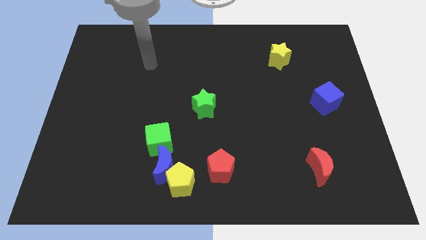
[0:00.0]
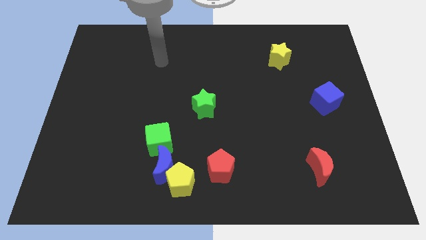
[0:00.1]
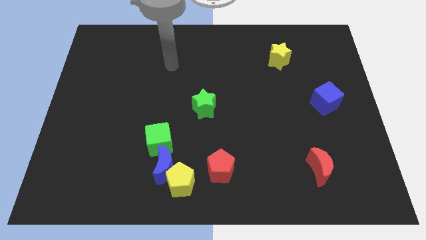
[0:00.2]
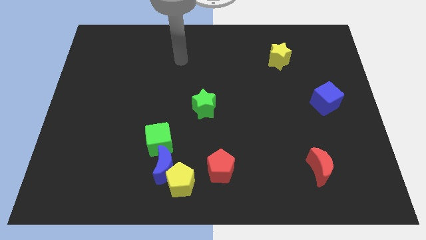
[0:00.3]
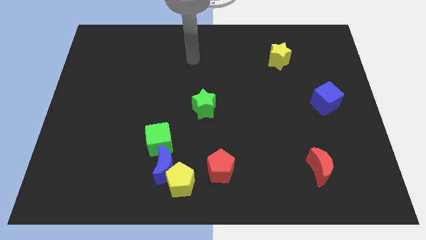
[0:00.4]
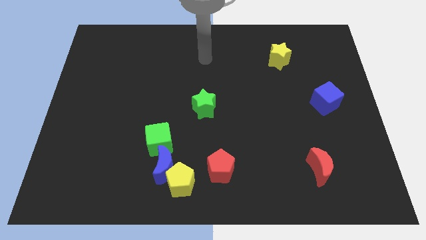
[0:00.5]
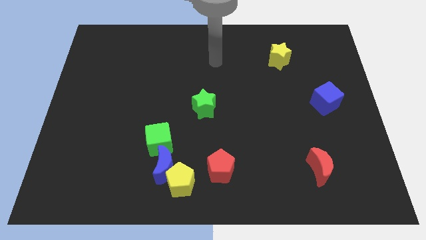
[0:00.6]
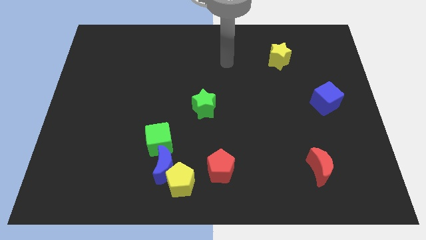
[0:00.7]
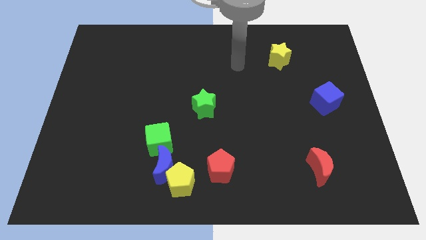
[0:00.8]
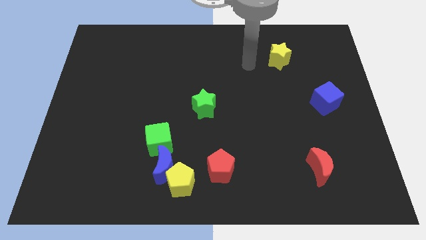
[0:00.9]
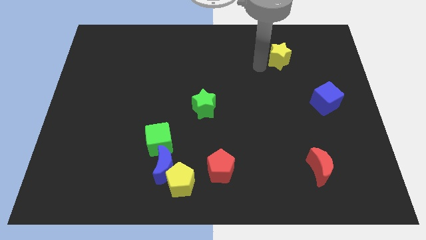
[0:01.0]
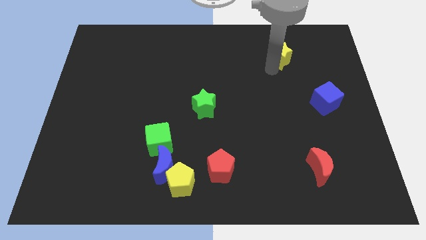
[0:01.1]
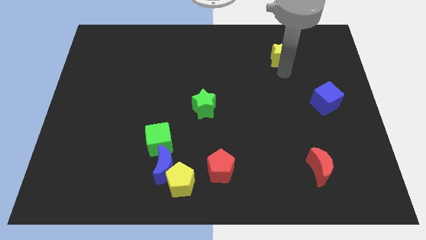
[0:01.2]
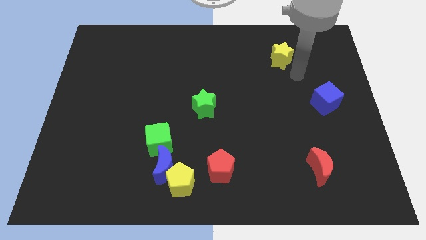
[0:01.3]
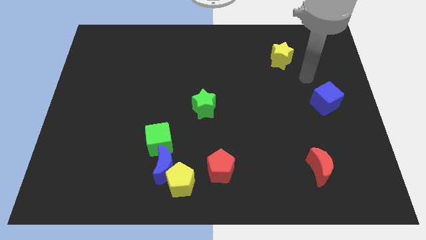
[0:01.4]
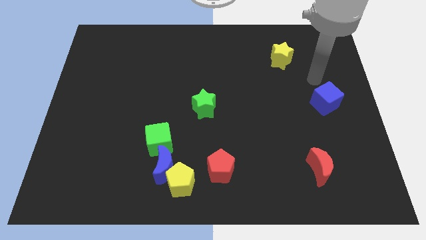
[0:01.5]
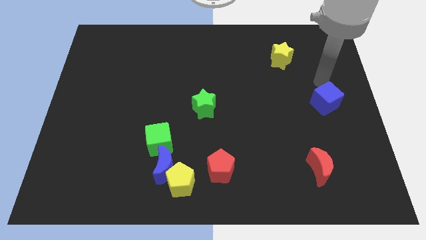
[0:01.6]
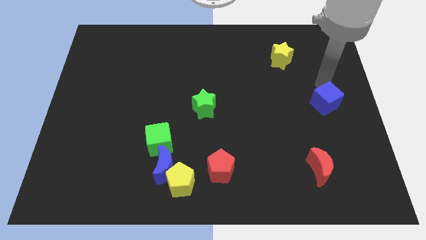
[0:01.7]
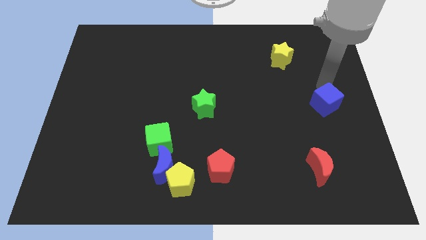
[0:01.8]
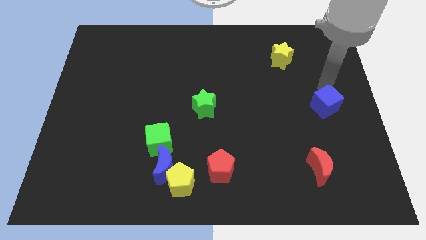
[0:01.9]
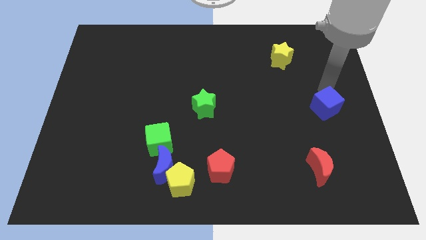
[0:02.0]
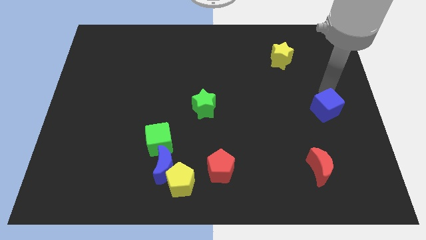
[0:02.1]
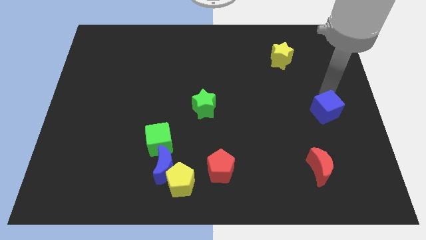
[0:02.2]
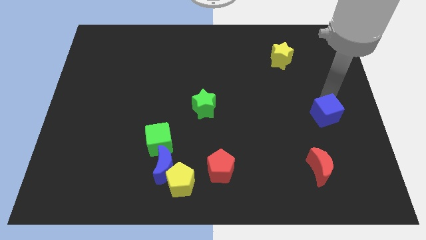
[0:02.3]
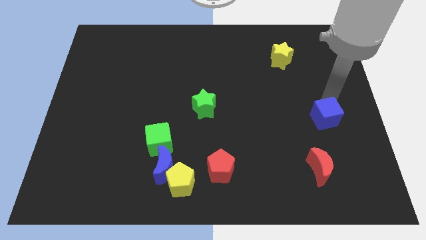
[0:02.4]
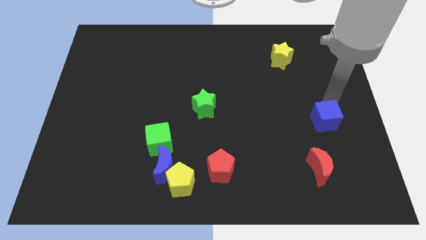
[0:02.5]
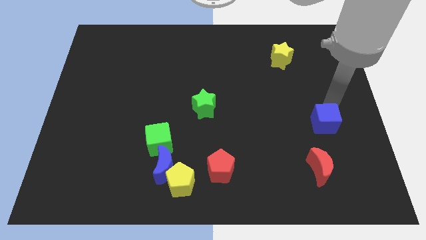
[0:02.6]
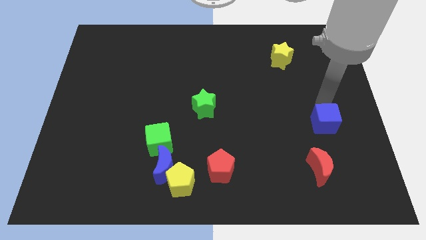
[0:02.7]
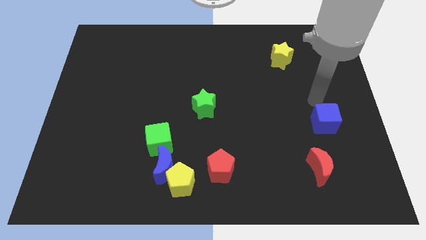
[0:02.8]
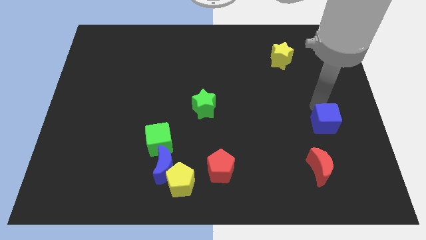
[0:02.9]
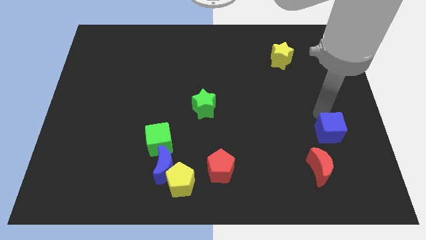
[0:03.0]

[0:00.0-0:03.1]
push the blue cube a bit down

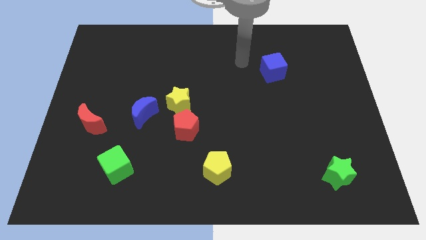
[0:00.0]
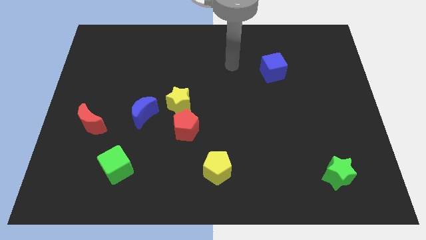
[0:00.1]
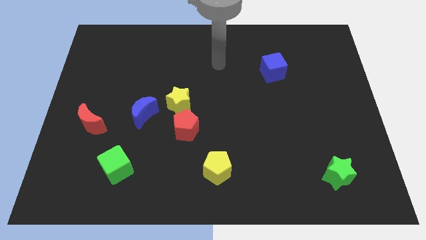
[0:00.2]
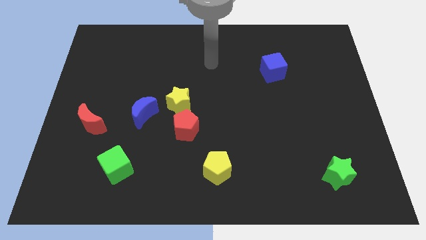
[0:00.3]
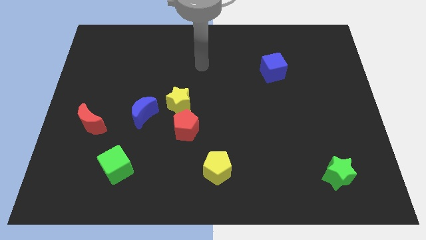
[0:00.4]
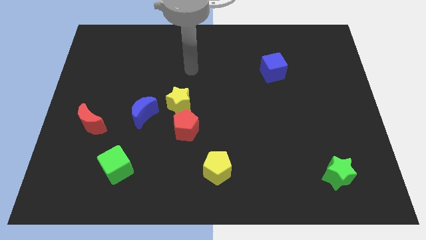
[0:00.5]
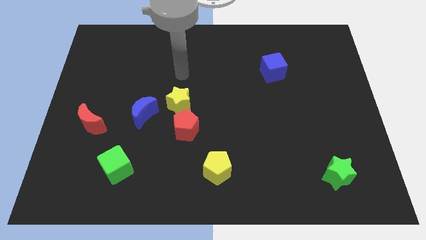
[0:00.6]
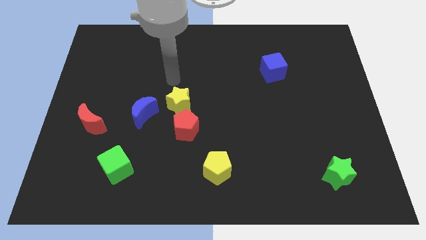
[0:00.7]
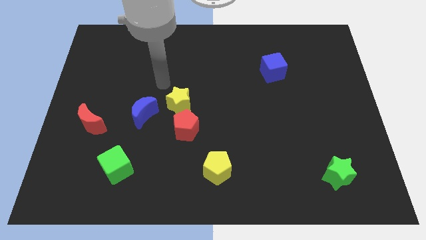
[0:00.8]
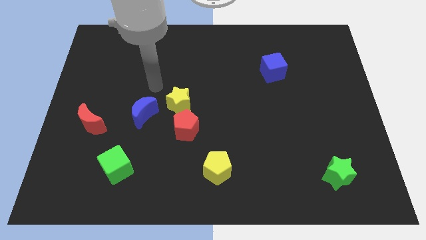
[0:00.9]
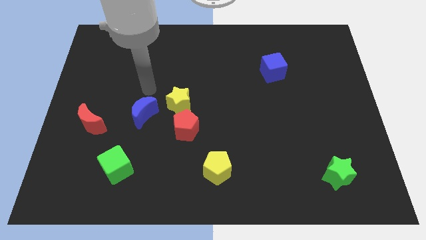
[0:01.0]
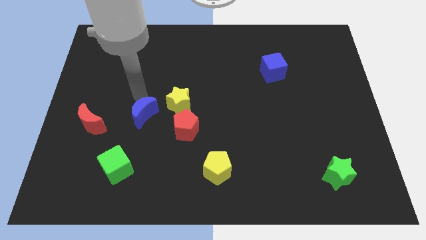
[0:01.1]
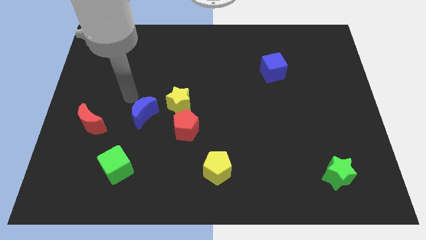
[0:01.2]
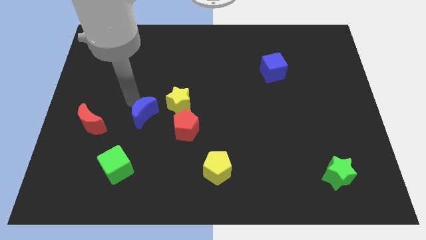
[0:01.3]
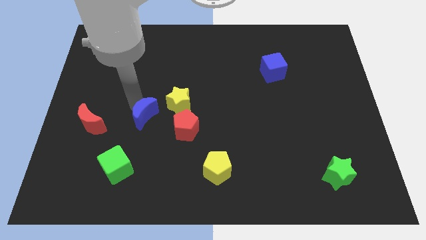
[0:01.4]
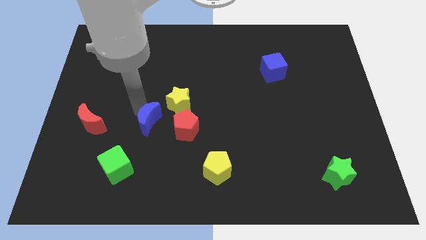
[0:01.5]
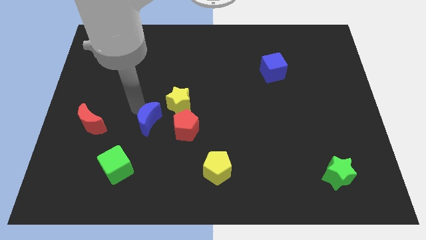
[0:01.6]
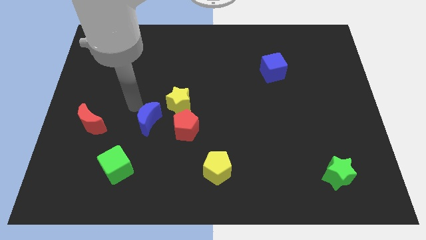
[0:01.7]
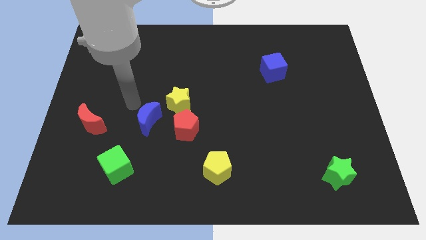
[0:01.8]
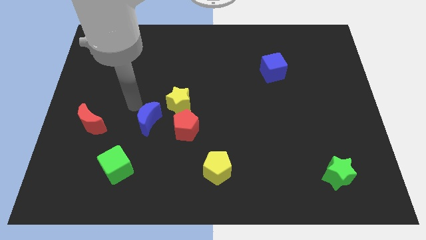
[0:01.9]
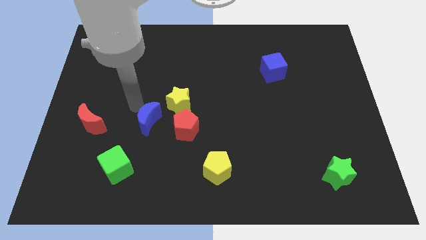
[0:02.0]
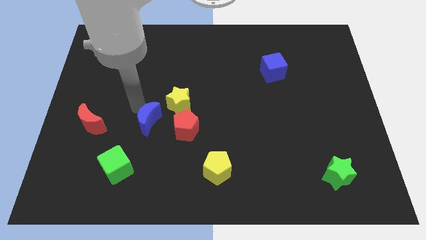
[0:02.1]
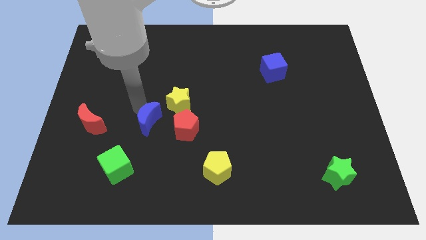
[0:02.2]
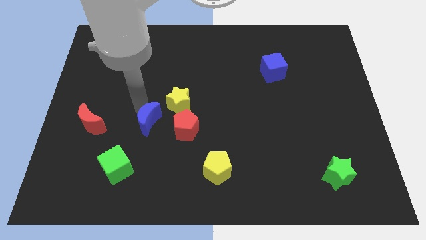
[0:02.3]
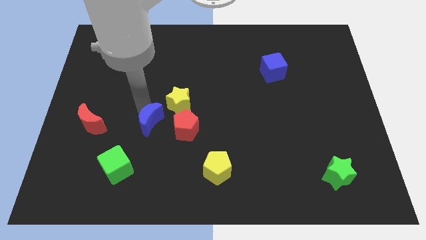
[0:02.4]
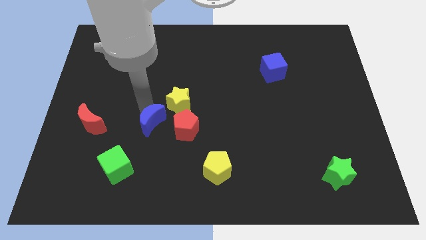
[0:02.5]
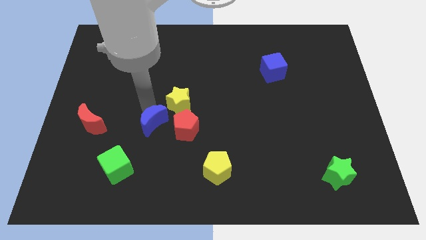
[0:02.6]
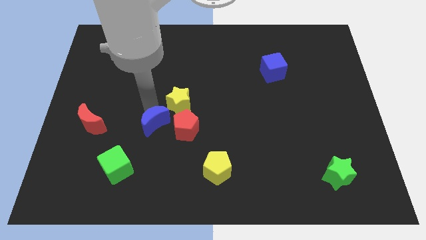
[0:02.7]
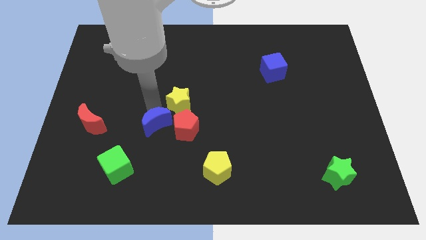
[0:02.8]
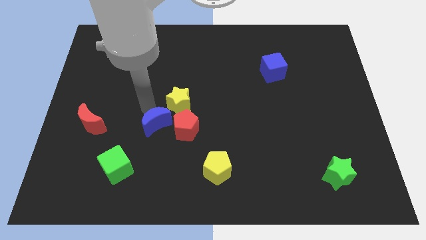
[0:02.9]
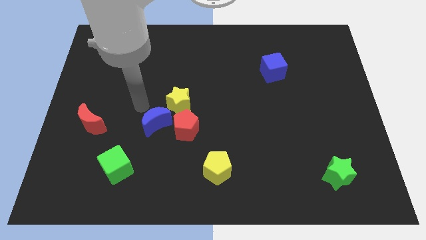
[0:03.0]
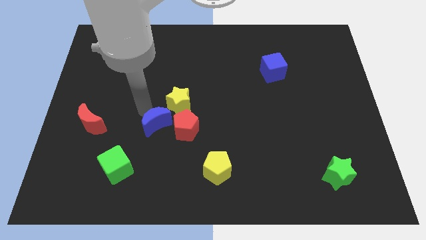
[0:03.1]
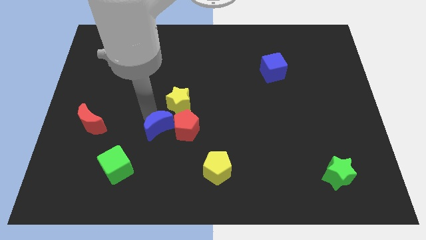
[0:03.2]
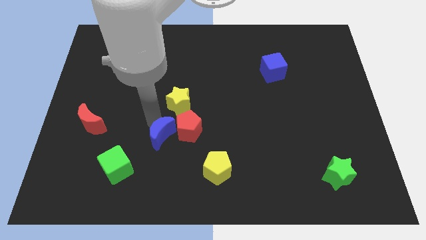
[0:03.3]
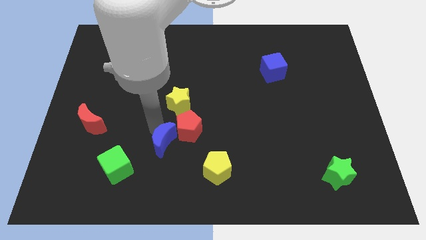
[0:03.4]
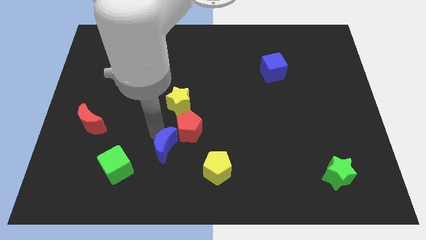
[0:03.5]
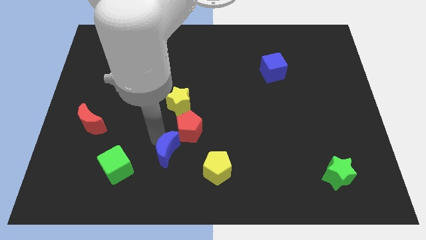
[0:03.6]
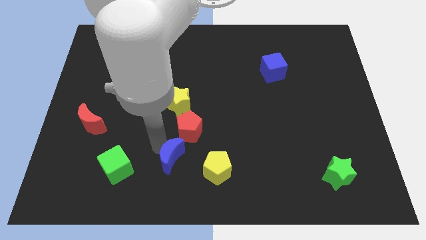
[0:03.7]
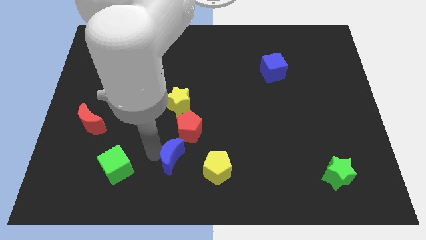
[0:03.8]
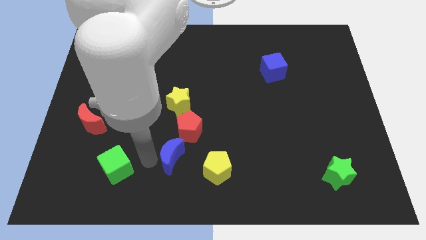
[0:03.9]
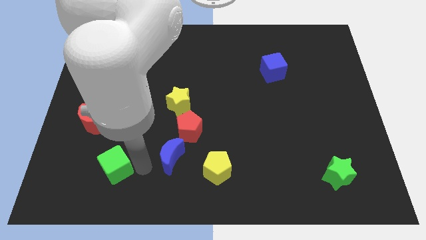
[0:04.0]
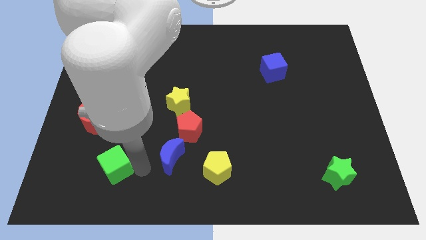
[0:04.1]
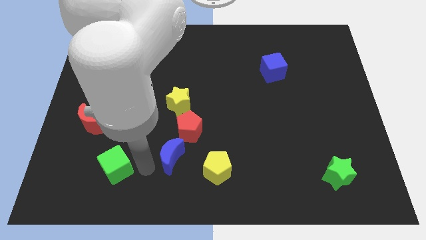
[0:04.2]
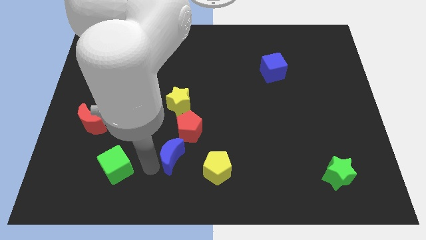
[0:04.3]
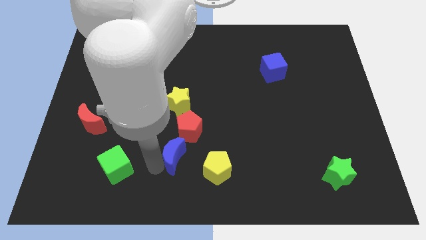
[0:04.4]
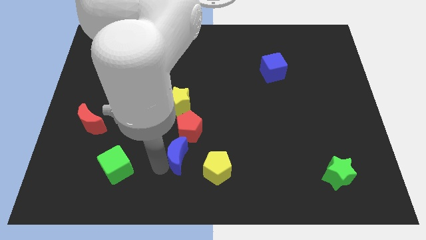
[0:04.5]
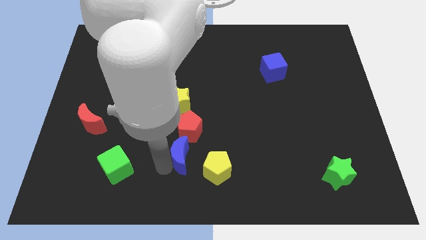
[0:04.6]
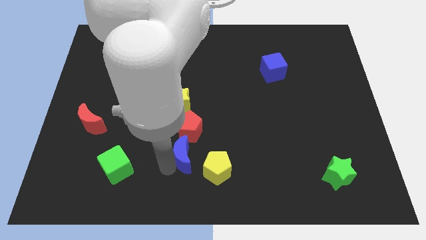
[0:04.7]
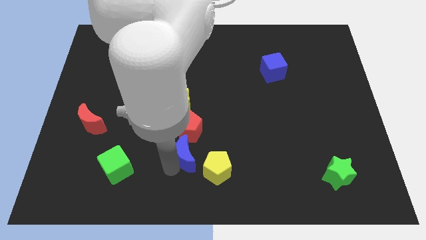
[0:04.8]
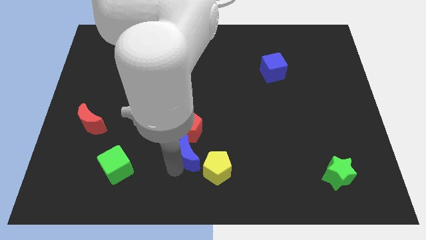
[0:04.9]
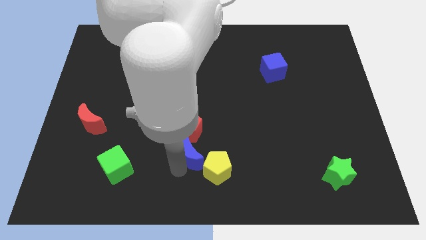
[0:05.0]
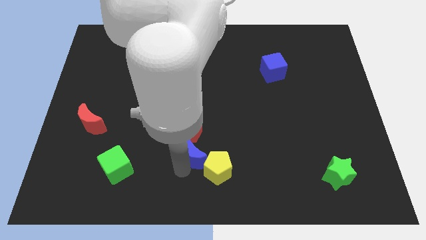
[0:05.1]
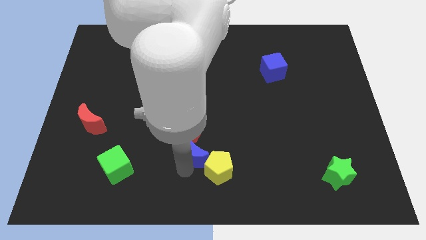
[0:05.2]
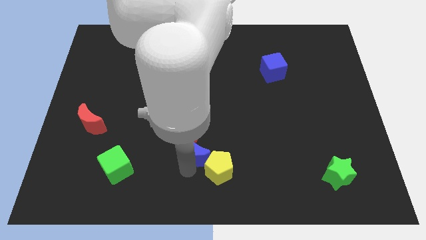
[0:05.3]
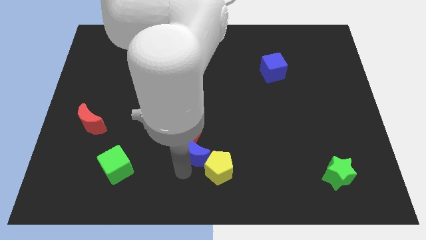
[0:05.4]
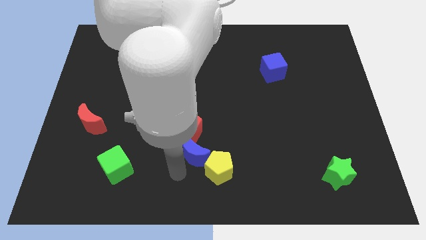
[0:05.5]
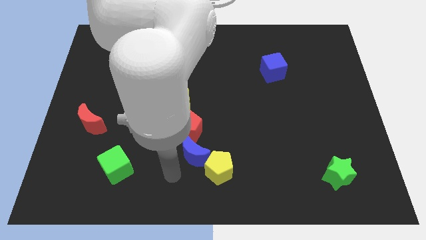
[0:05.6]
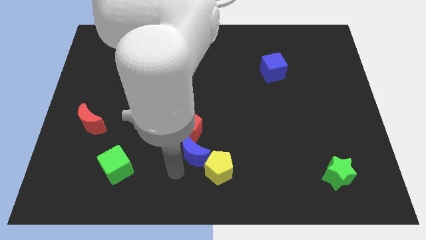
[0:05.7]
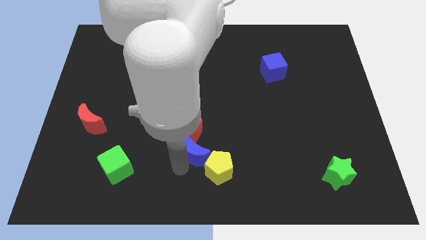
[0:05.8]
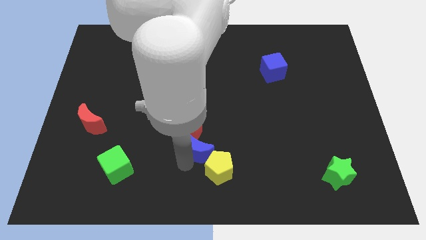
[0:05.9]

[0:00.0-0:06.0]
slightly push the blue moon to the right
